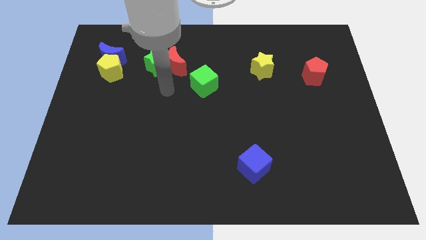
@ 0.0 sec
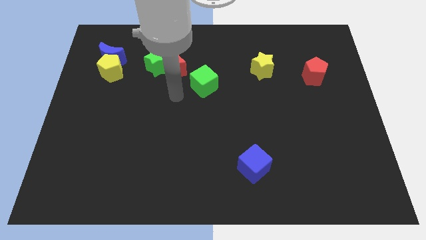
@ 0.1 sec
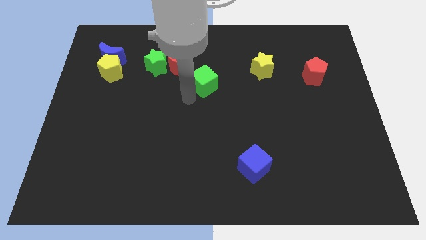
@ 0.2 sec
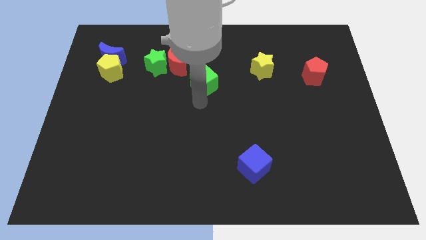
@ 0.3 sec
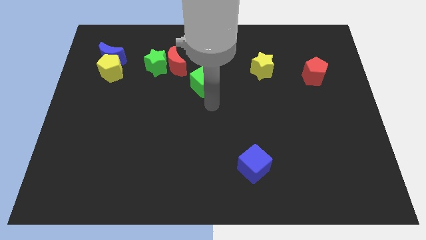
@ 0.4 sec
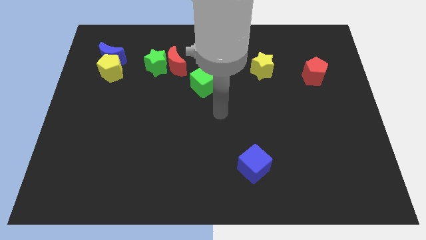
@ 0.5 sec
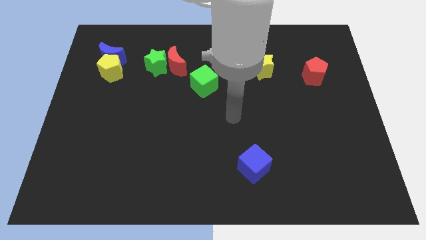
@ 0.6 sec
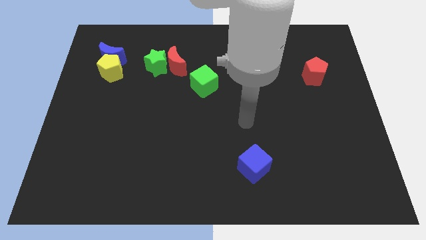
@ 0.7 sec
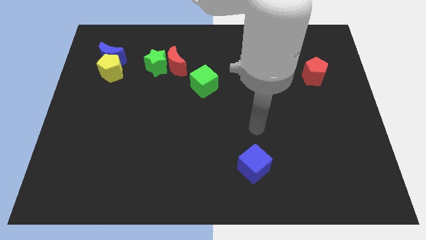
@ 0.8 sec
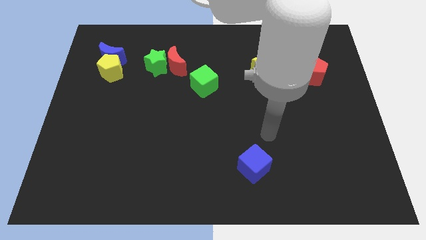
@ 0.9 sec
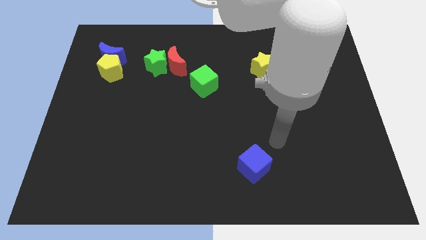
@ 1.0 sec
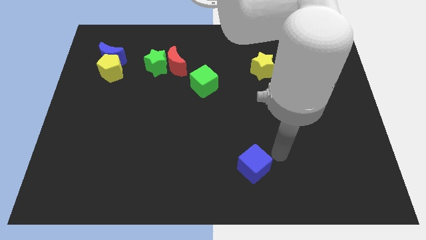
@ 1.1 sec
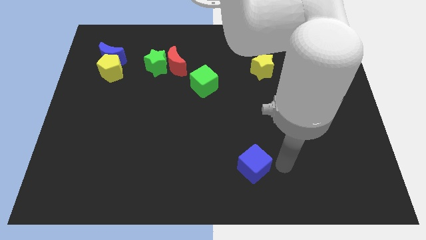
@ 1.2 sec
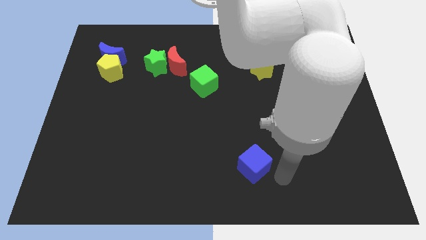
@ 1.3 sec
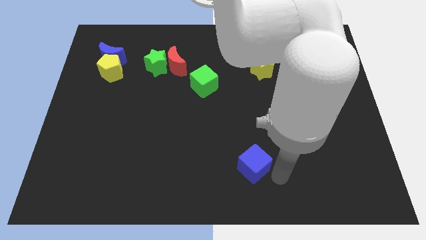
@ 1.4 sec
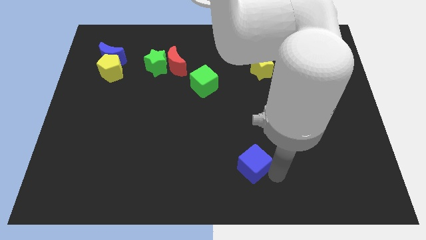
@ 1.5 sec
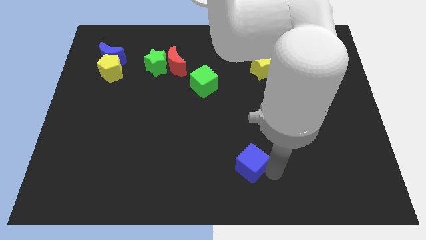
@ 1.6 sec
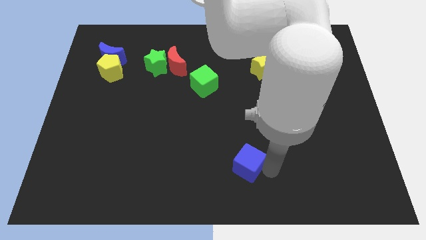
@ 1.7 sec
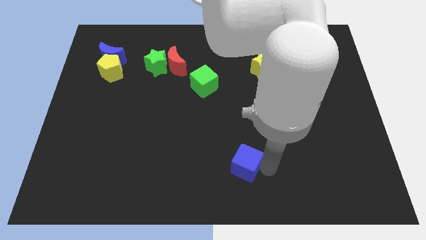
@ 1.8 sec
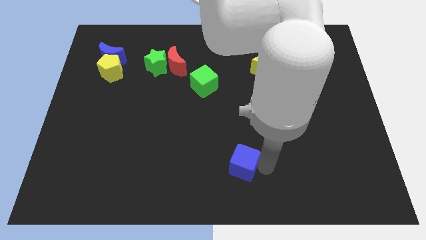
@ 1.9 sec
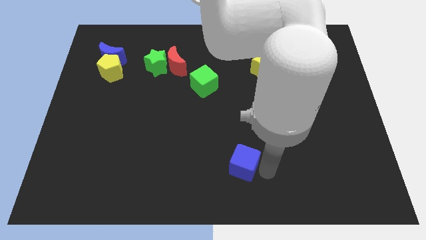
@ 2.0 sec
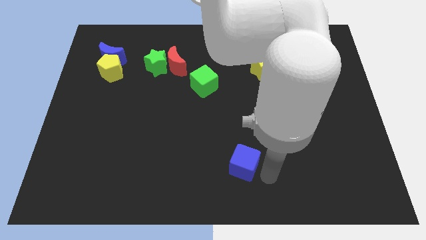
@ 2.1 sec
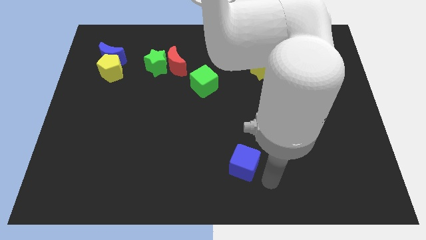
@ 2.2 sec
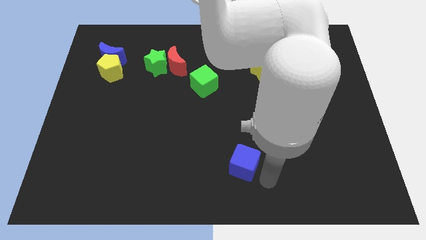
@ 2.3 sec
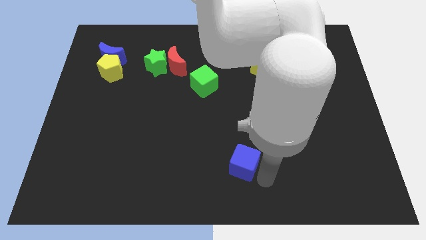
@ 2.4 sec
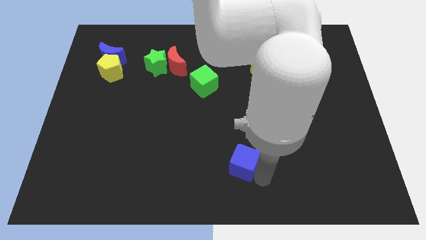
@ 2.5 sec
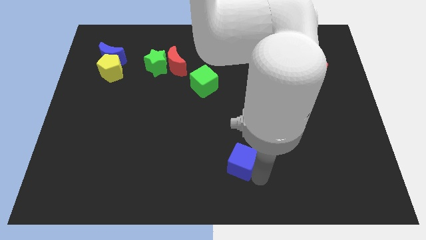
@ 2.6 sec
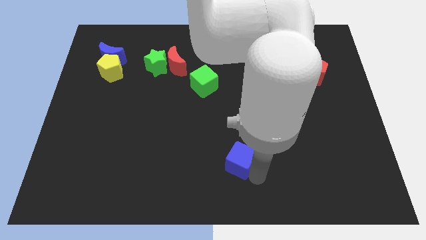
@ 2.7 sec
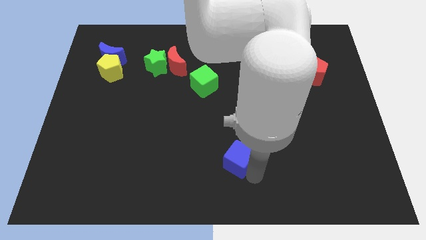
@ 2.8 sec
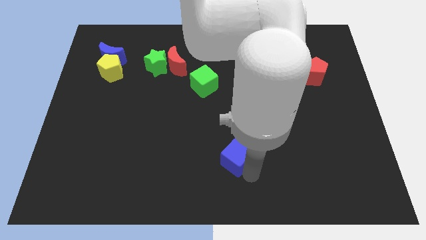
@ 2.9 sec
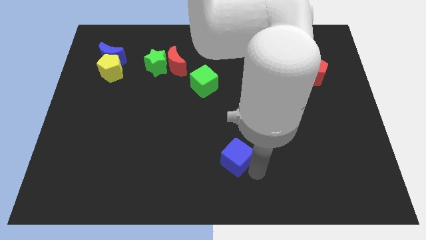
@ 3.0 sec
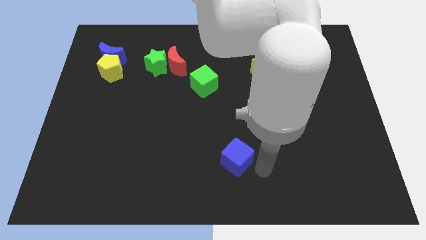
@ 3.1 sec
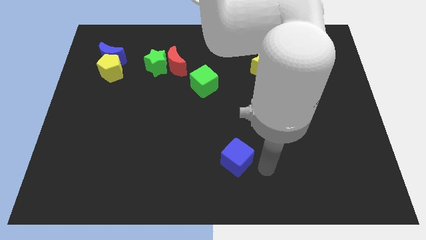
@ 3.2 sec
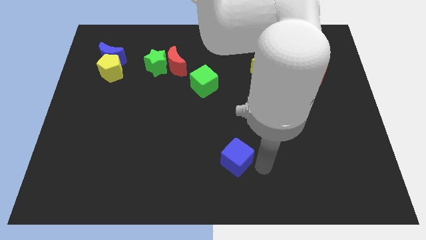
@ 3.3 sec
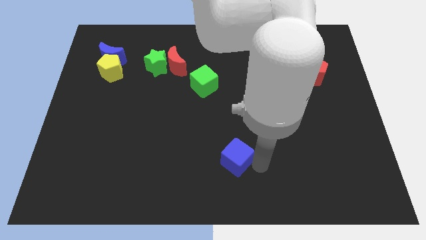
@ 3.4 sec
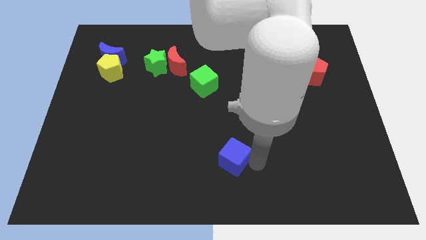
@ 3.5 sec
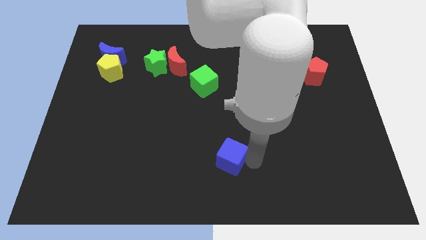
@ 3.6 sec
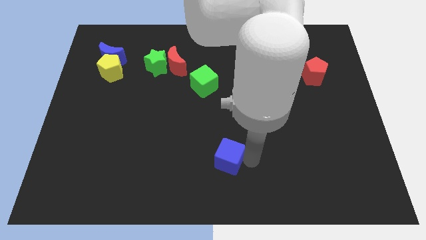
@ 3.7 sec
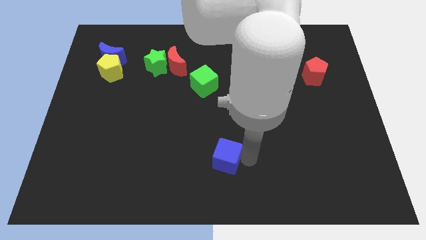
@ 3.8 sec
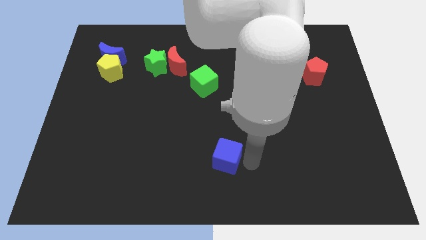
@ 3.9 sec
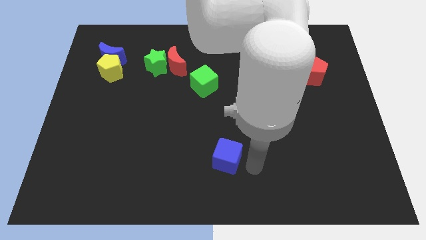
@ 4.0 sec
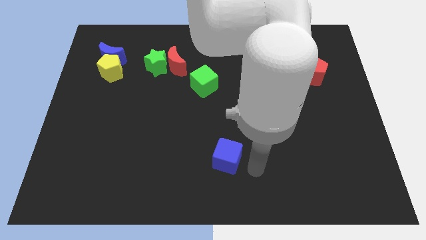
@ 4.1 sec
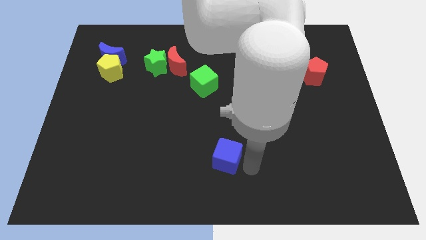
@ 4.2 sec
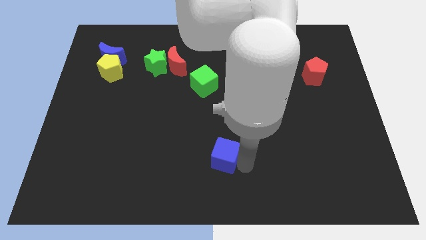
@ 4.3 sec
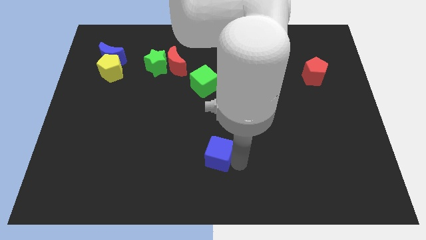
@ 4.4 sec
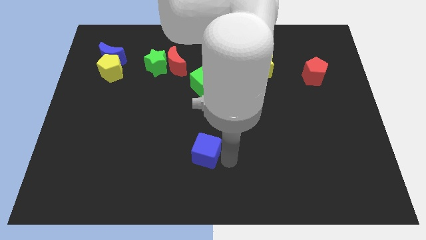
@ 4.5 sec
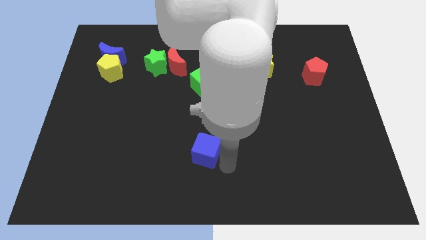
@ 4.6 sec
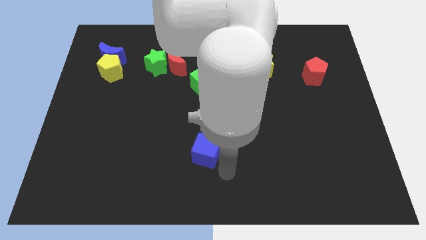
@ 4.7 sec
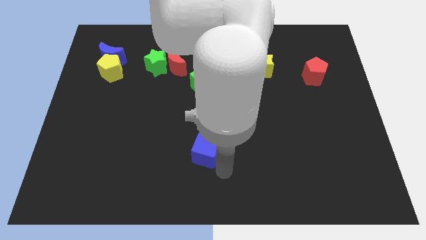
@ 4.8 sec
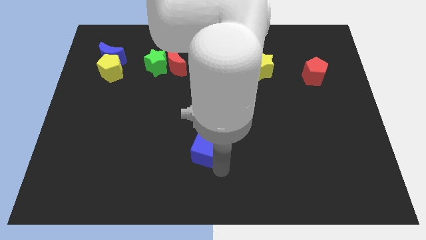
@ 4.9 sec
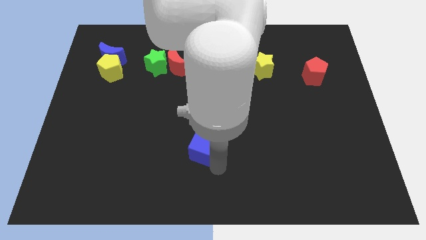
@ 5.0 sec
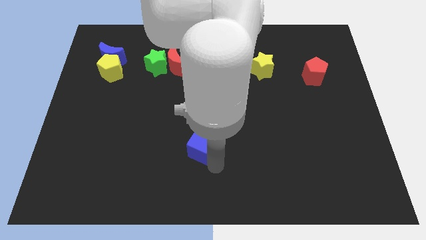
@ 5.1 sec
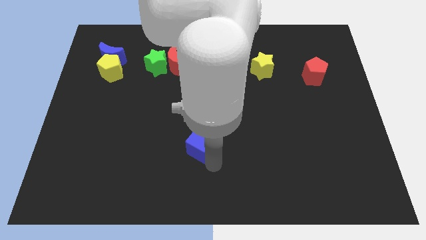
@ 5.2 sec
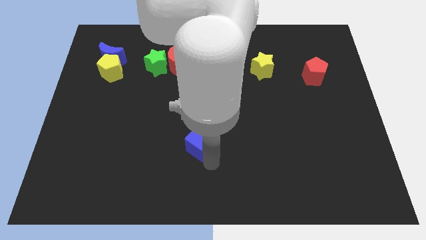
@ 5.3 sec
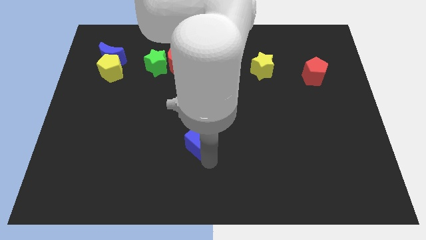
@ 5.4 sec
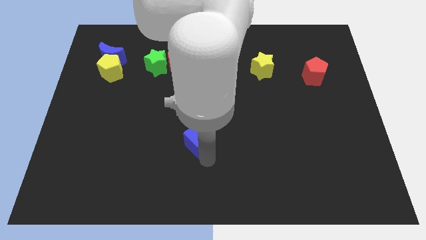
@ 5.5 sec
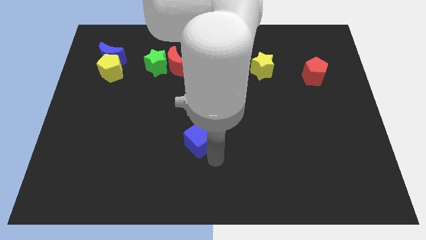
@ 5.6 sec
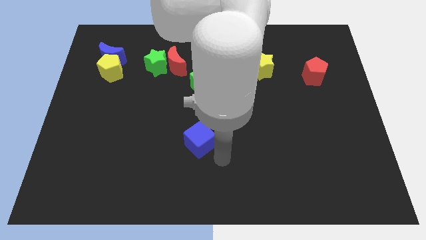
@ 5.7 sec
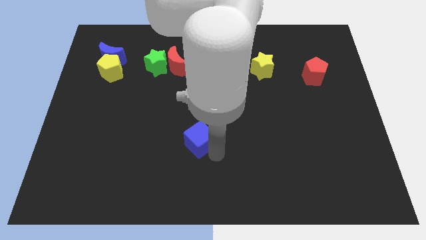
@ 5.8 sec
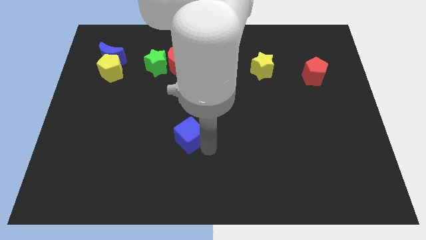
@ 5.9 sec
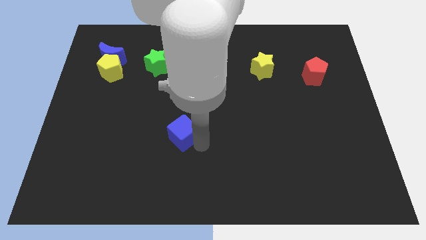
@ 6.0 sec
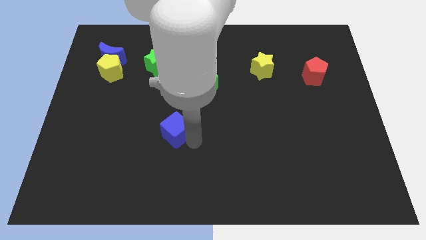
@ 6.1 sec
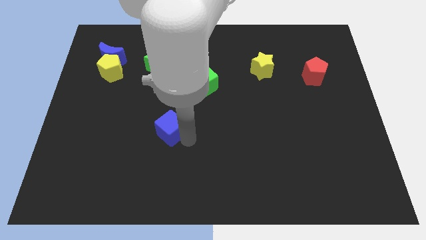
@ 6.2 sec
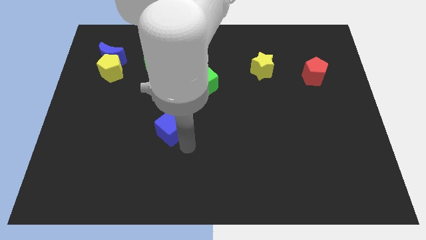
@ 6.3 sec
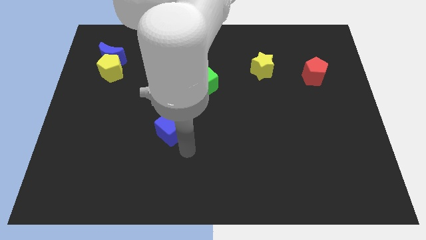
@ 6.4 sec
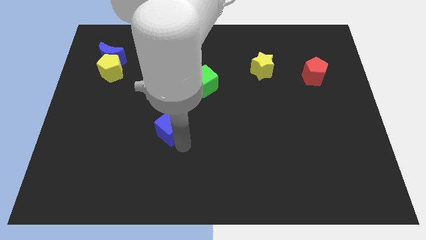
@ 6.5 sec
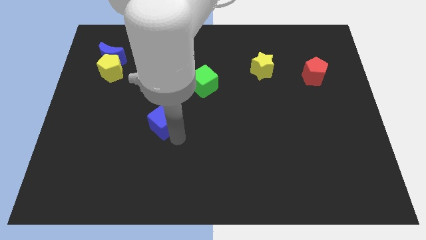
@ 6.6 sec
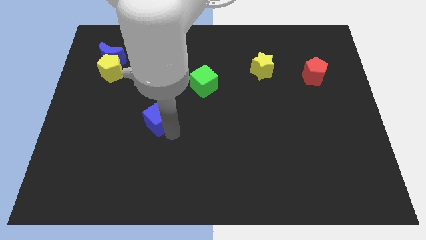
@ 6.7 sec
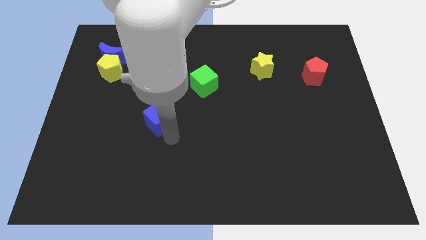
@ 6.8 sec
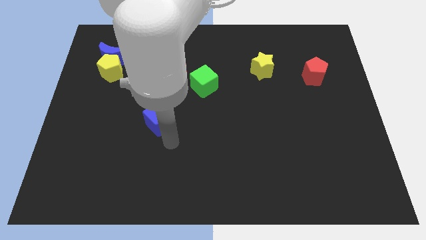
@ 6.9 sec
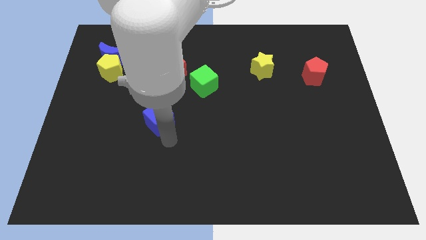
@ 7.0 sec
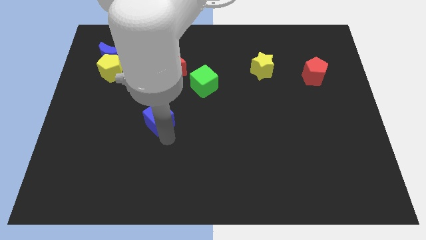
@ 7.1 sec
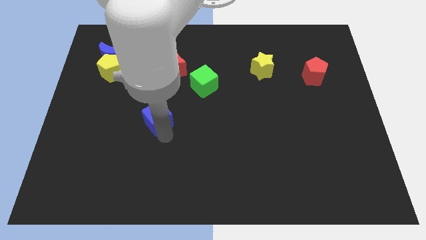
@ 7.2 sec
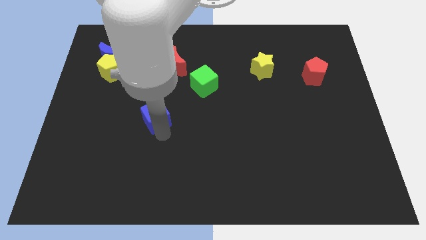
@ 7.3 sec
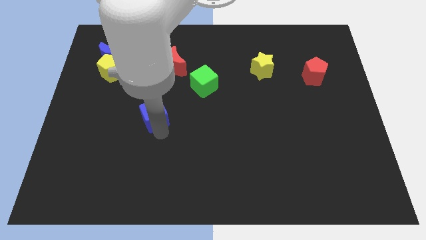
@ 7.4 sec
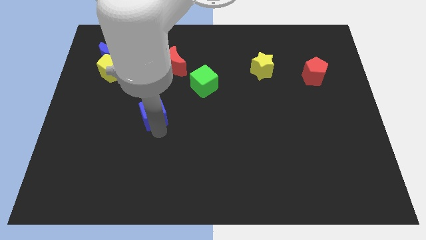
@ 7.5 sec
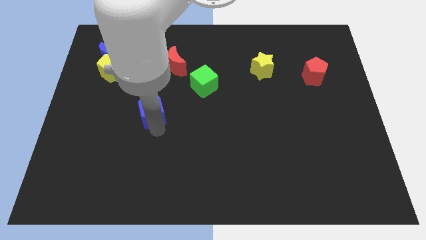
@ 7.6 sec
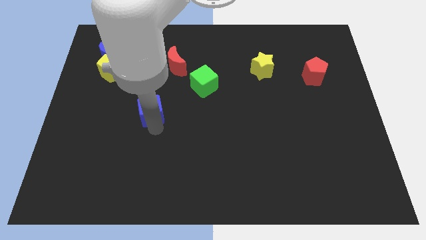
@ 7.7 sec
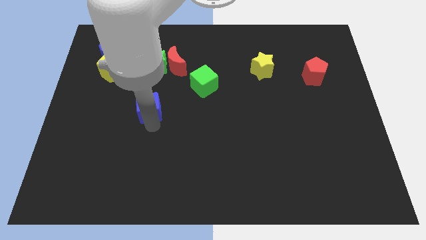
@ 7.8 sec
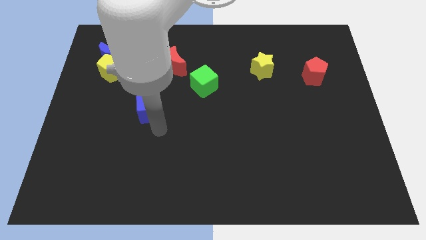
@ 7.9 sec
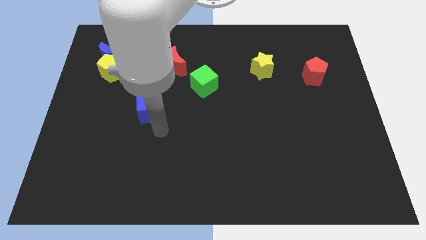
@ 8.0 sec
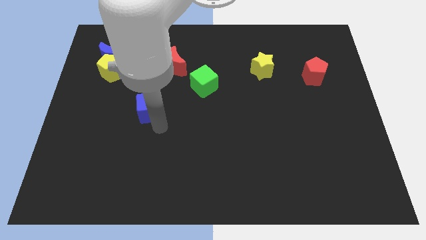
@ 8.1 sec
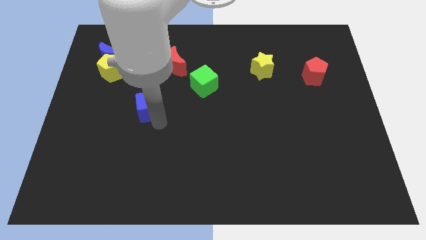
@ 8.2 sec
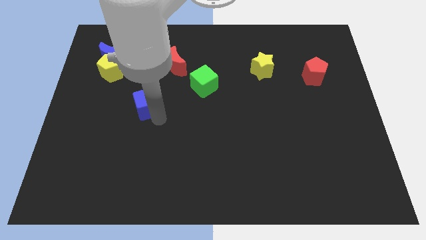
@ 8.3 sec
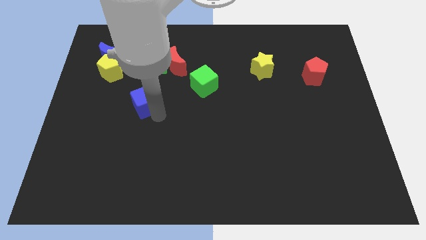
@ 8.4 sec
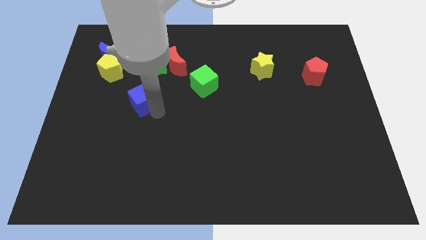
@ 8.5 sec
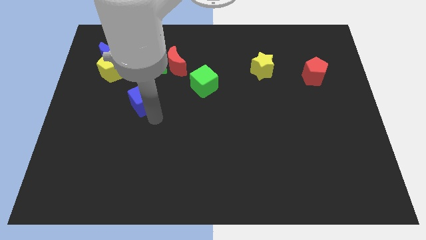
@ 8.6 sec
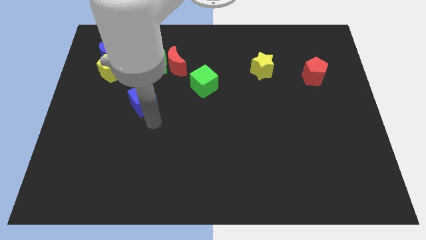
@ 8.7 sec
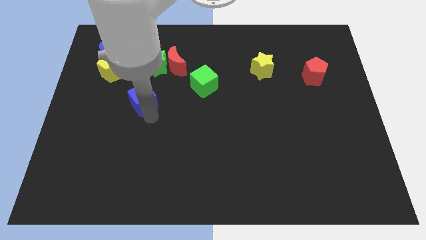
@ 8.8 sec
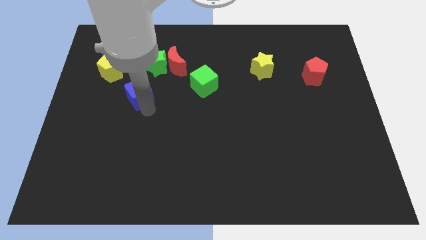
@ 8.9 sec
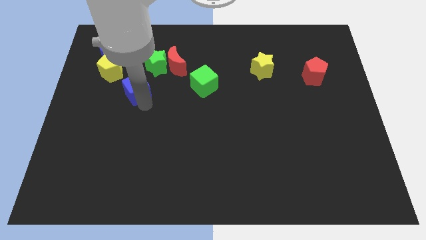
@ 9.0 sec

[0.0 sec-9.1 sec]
put the blue cube diagonally down and to the left of the green star
